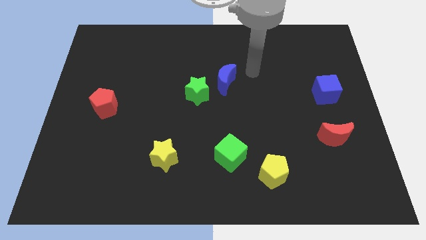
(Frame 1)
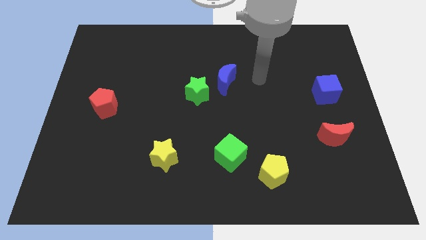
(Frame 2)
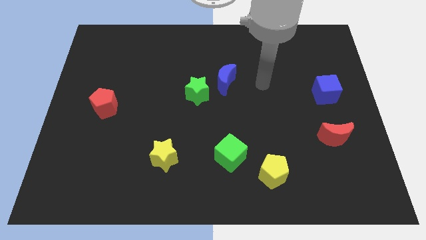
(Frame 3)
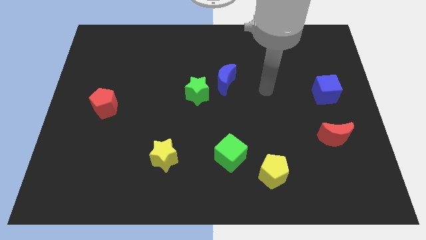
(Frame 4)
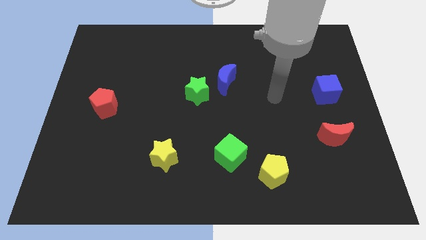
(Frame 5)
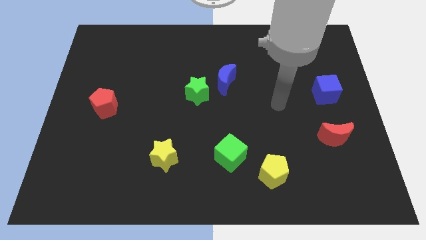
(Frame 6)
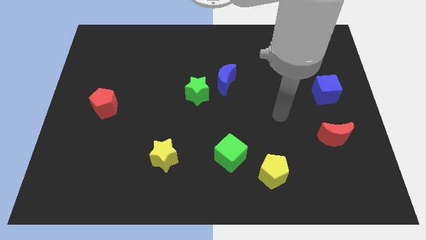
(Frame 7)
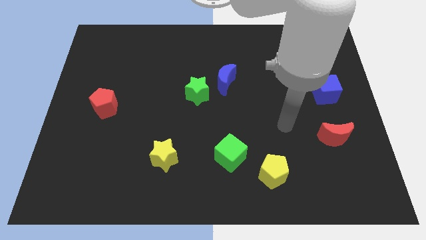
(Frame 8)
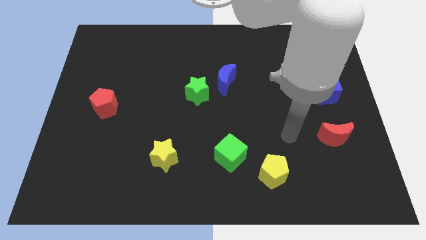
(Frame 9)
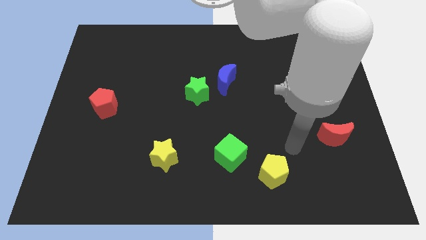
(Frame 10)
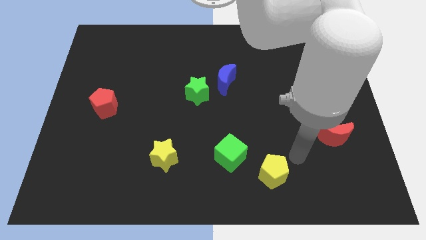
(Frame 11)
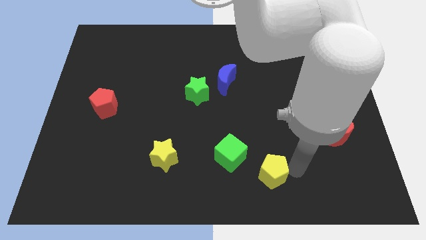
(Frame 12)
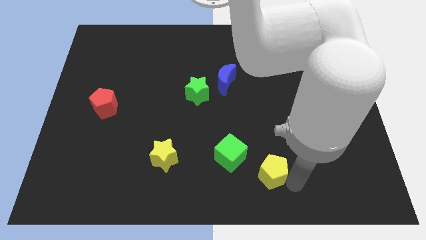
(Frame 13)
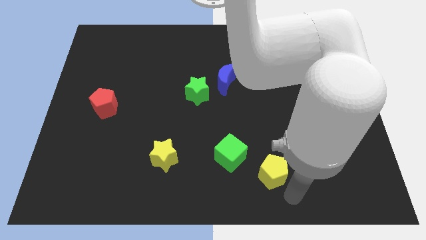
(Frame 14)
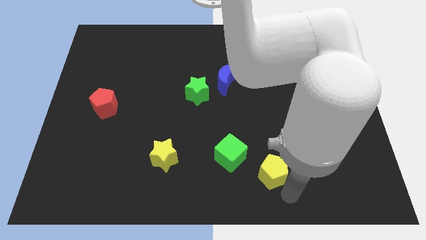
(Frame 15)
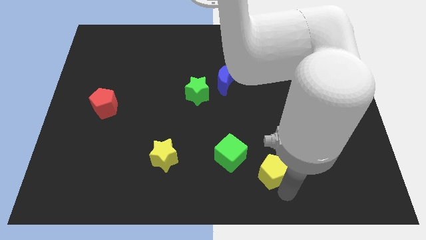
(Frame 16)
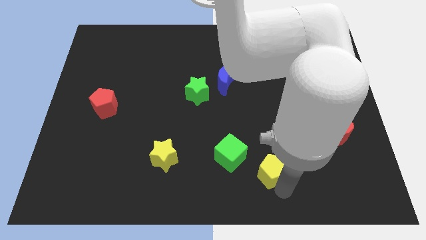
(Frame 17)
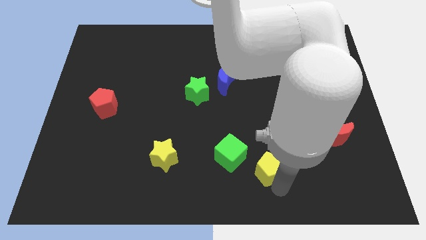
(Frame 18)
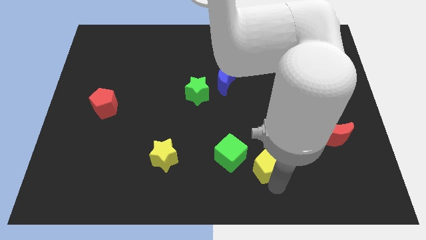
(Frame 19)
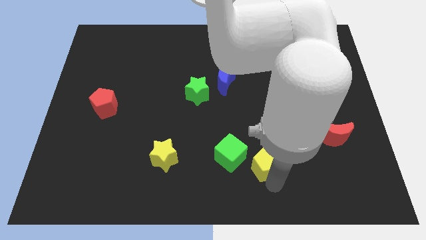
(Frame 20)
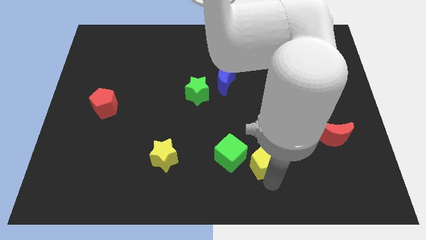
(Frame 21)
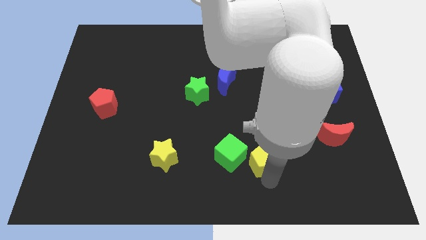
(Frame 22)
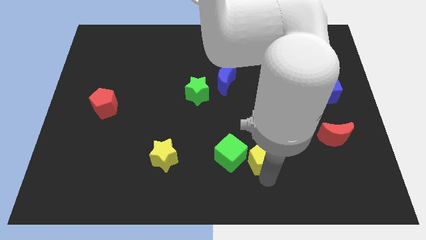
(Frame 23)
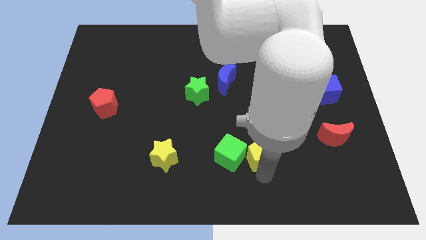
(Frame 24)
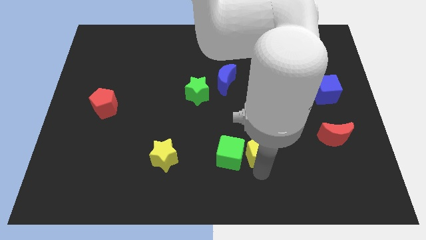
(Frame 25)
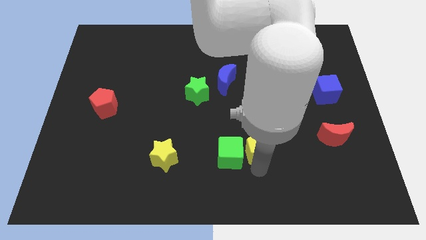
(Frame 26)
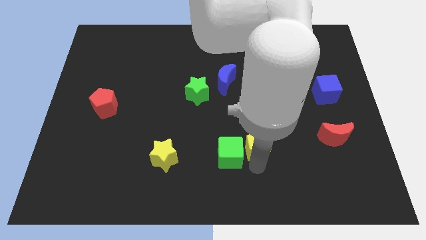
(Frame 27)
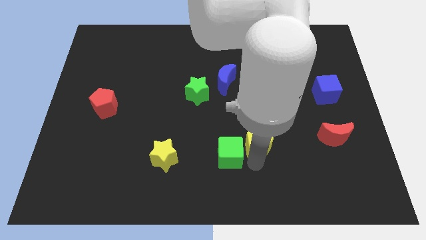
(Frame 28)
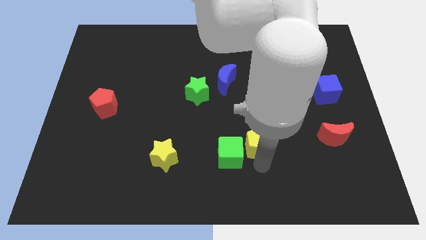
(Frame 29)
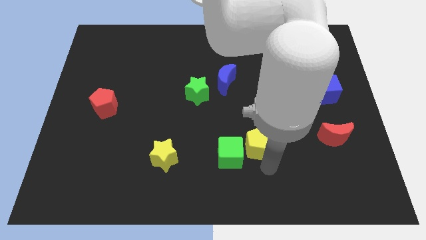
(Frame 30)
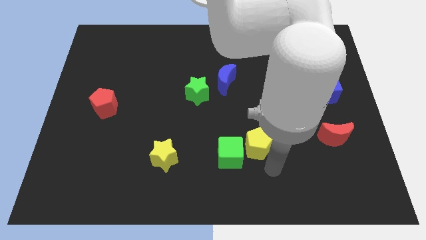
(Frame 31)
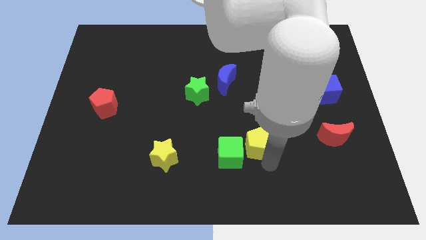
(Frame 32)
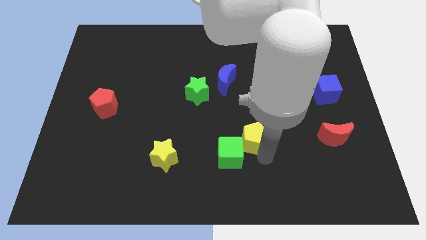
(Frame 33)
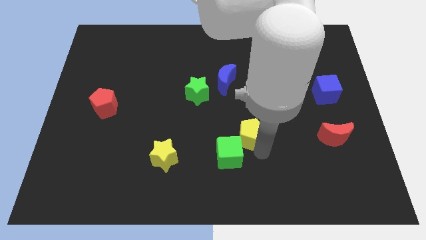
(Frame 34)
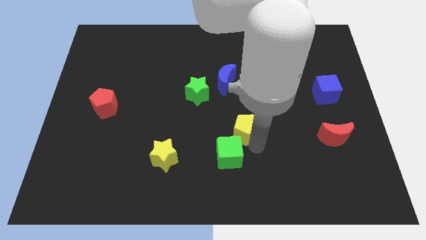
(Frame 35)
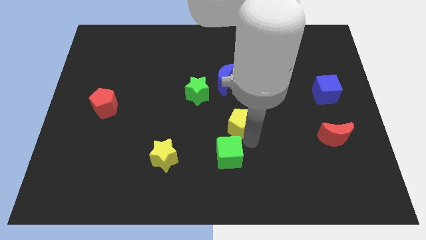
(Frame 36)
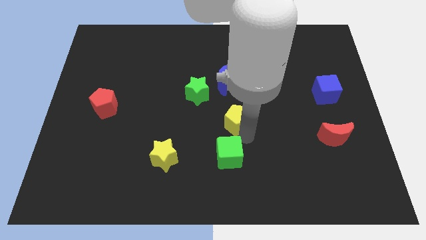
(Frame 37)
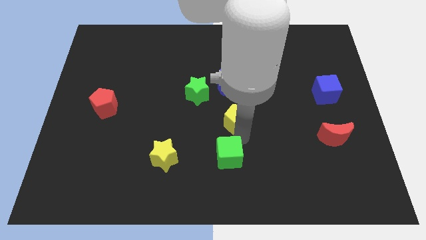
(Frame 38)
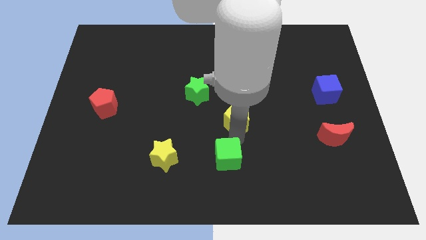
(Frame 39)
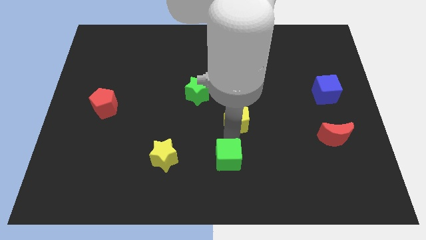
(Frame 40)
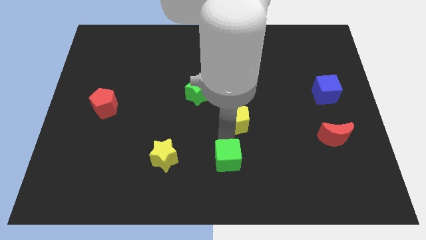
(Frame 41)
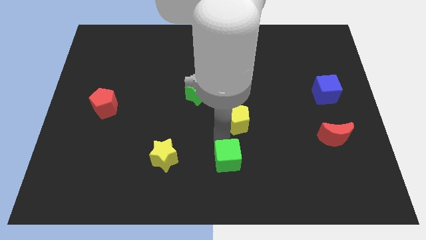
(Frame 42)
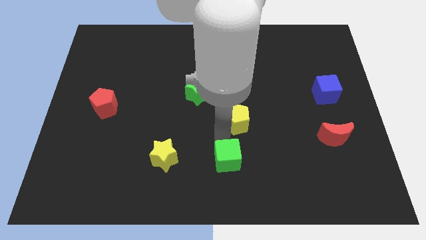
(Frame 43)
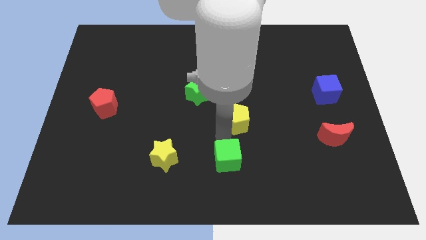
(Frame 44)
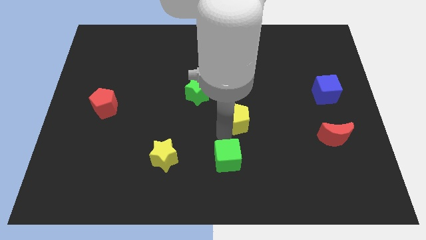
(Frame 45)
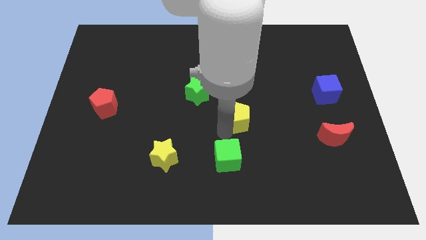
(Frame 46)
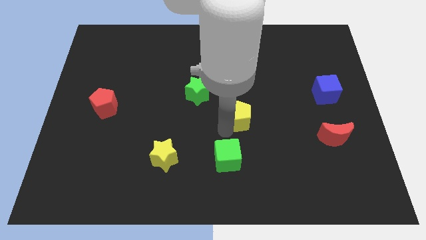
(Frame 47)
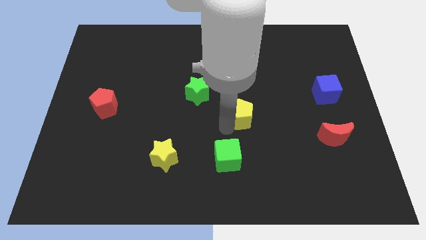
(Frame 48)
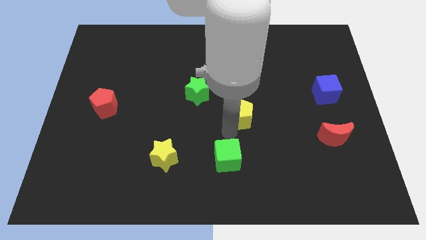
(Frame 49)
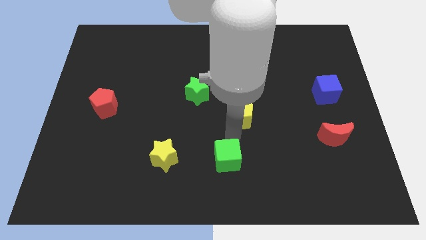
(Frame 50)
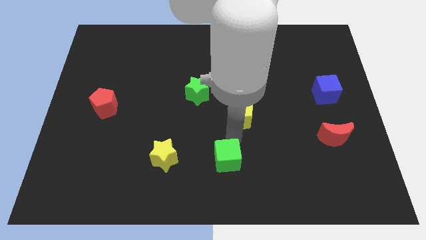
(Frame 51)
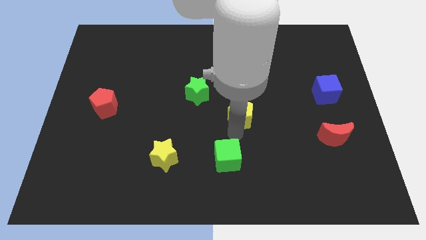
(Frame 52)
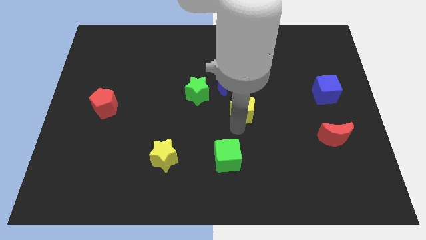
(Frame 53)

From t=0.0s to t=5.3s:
move the yellow pentagon to the bottom right of the blue moon

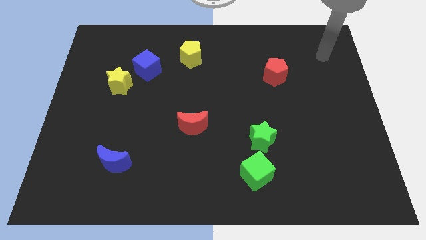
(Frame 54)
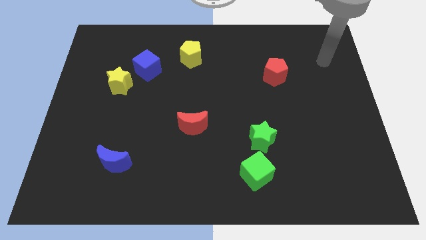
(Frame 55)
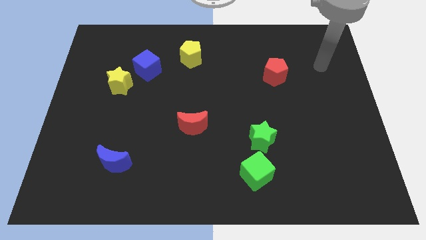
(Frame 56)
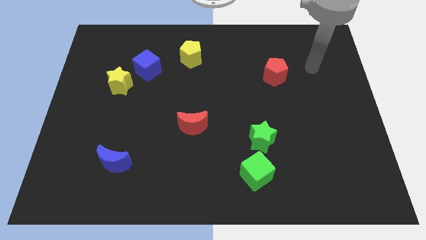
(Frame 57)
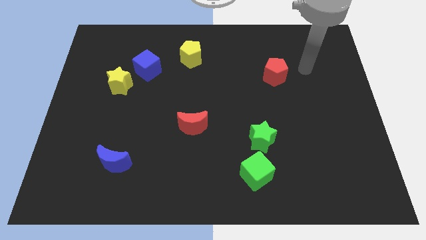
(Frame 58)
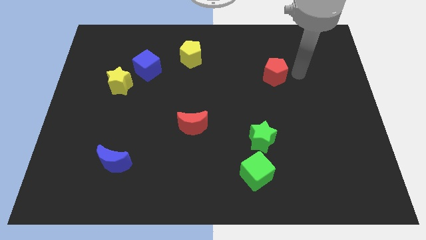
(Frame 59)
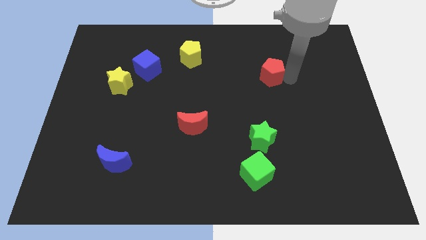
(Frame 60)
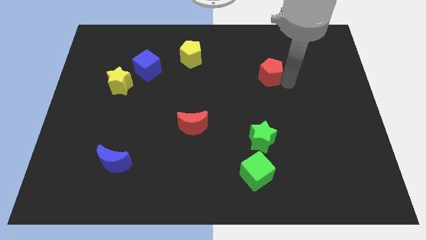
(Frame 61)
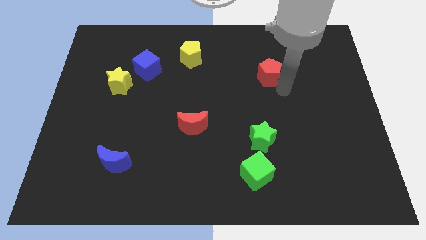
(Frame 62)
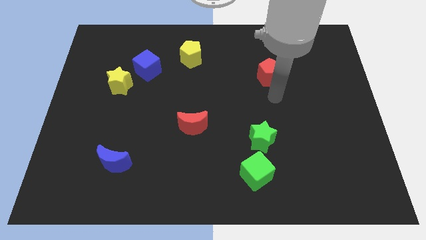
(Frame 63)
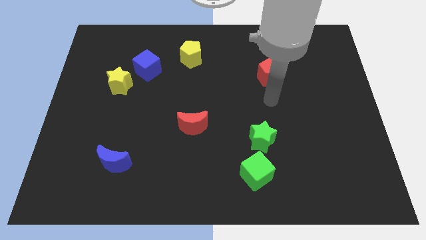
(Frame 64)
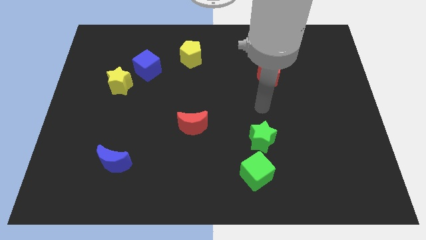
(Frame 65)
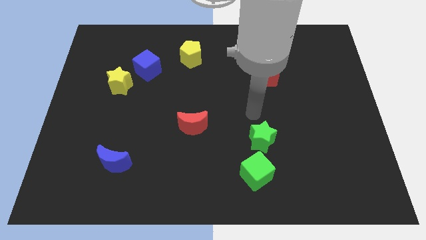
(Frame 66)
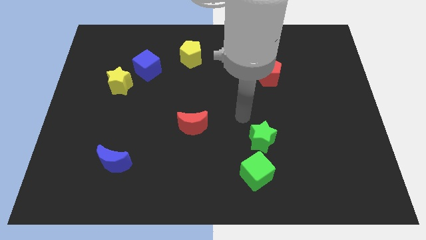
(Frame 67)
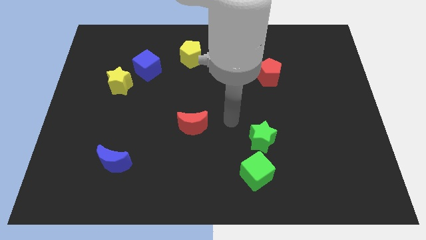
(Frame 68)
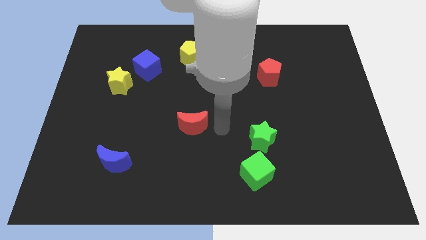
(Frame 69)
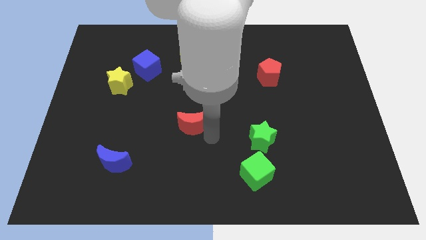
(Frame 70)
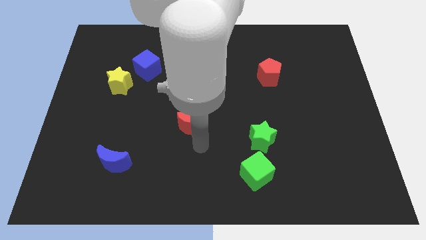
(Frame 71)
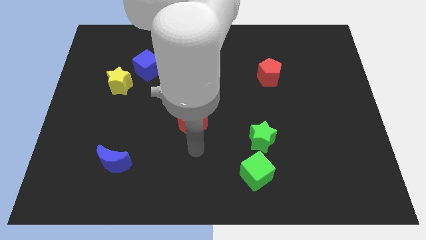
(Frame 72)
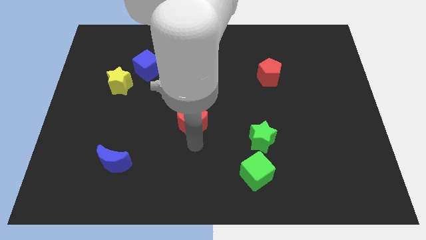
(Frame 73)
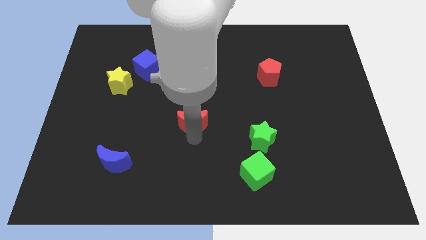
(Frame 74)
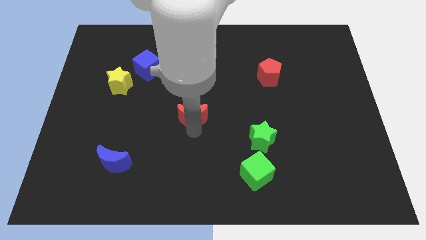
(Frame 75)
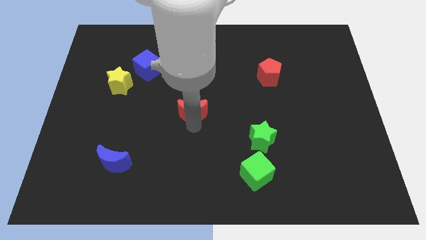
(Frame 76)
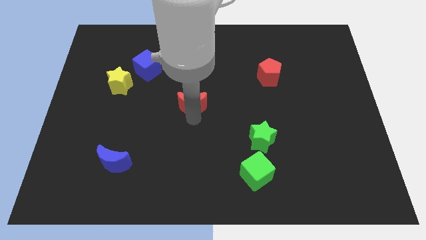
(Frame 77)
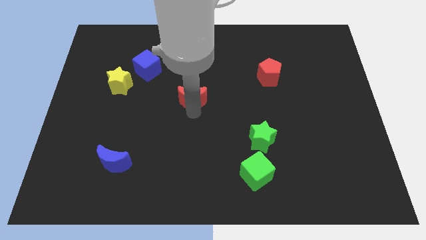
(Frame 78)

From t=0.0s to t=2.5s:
push the red moon to the bottom side of the yellow pentagon

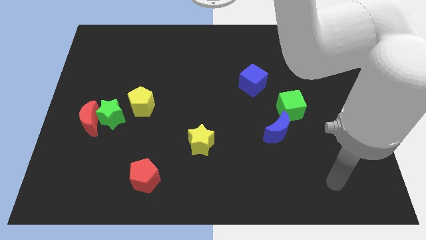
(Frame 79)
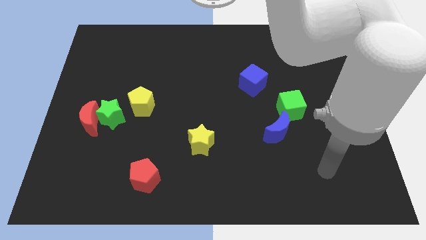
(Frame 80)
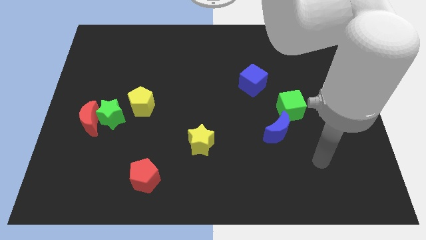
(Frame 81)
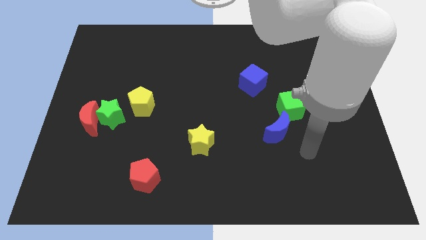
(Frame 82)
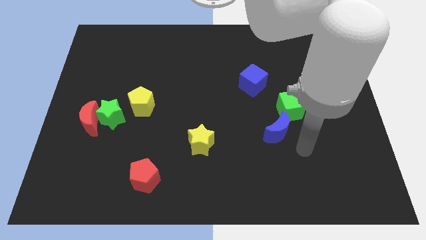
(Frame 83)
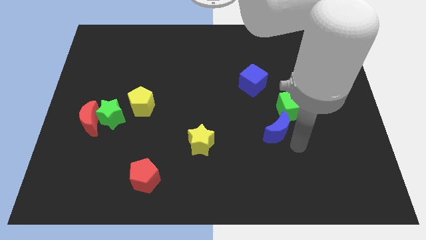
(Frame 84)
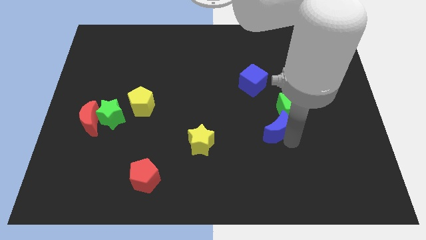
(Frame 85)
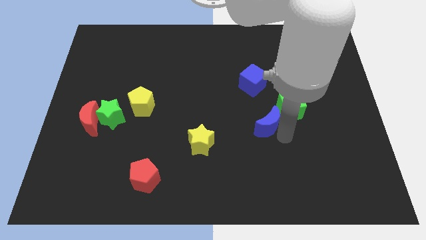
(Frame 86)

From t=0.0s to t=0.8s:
push the blue moon to the bottom side of the blue cube
